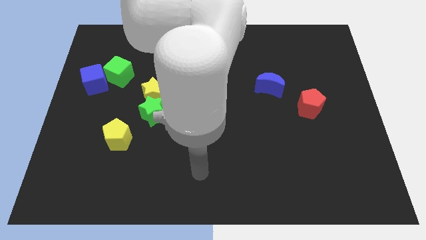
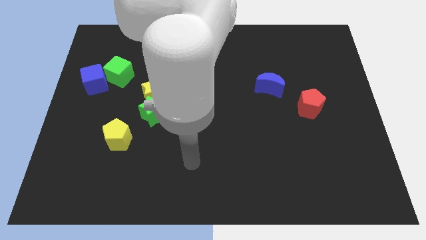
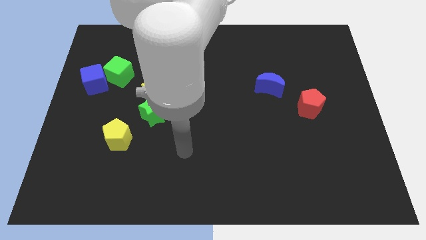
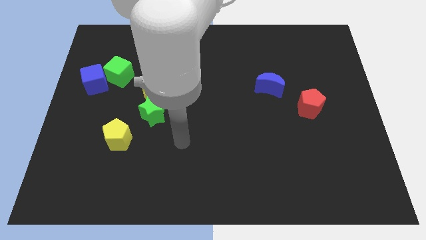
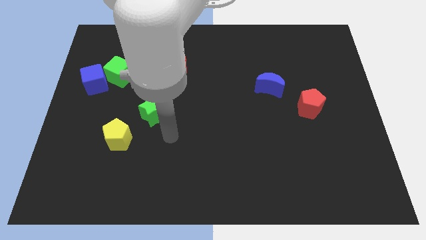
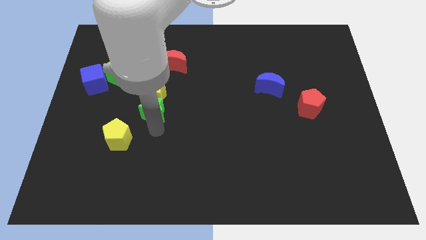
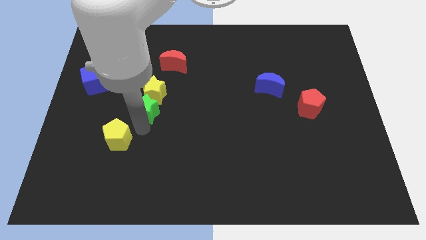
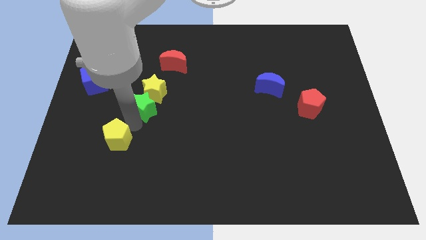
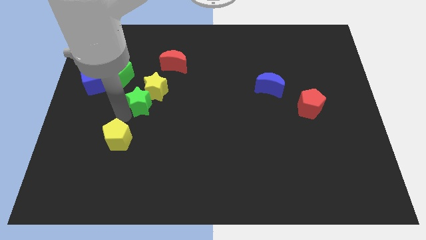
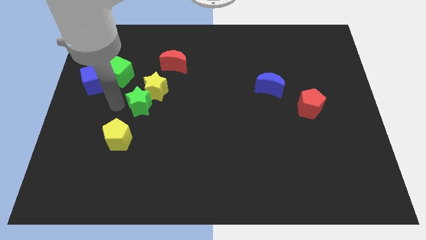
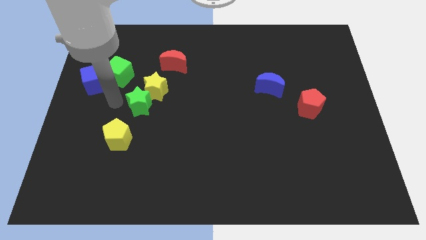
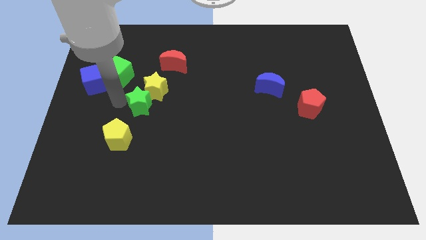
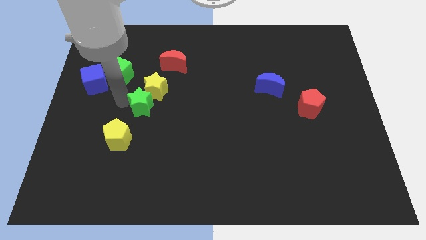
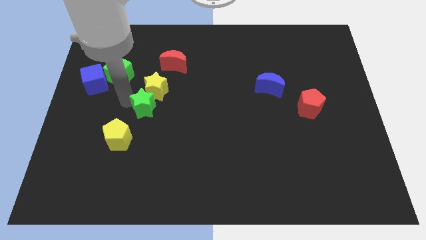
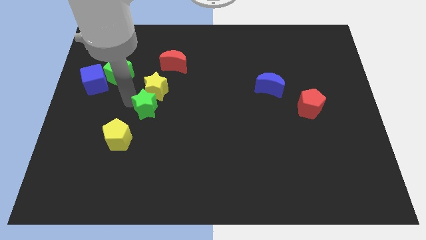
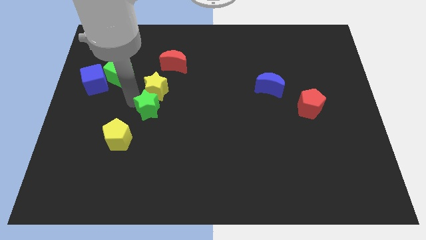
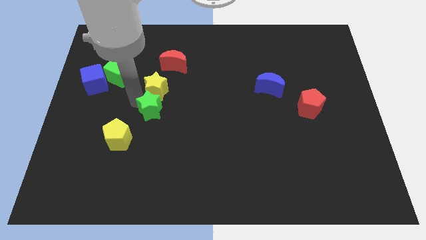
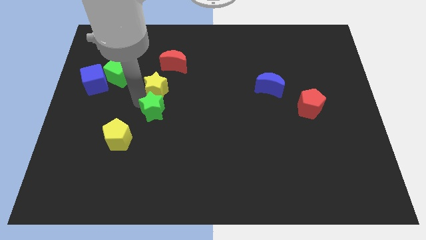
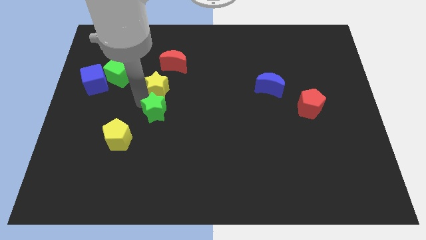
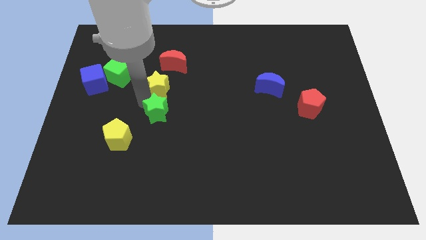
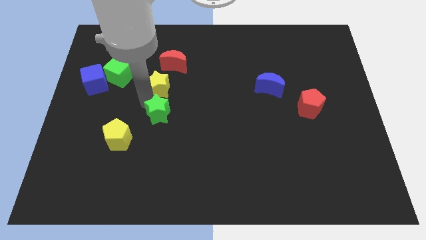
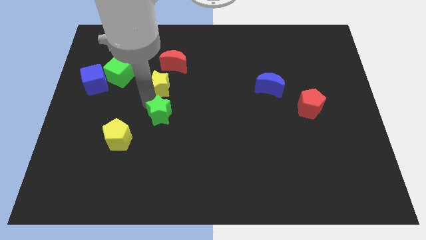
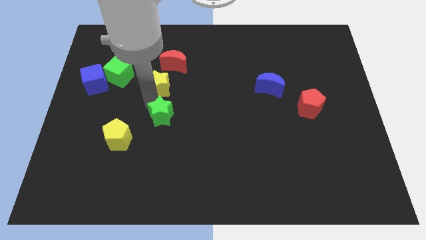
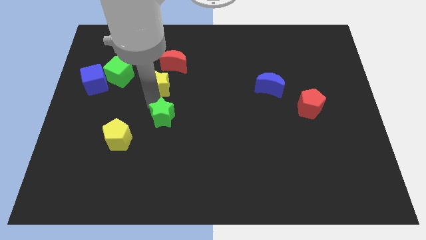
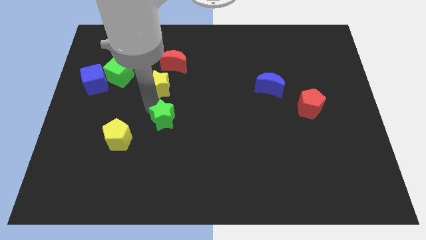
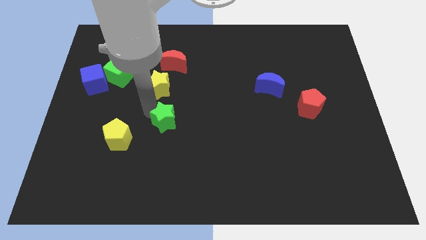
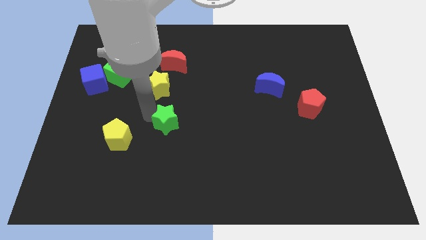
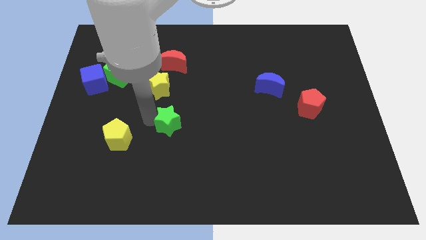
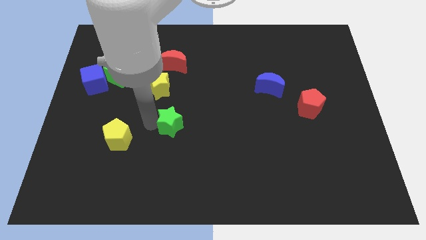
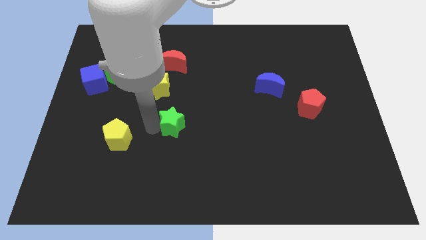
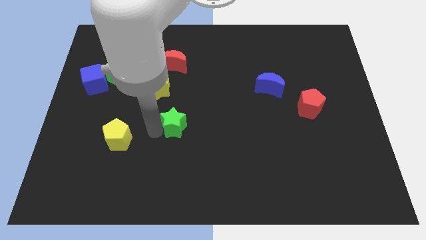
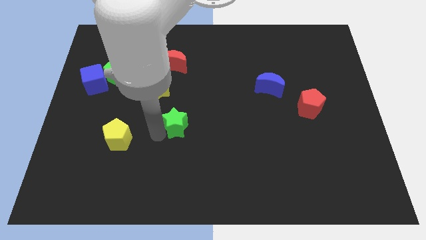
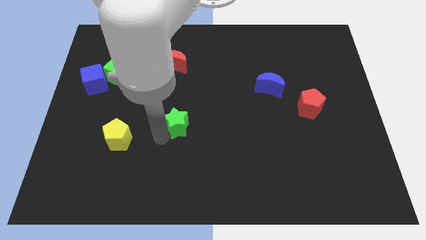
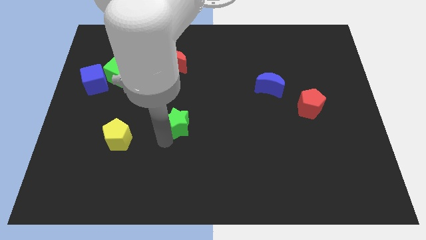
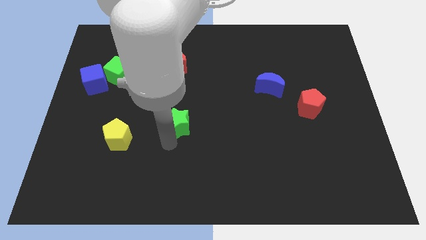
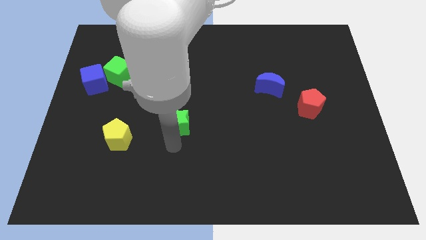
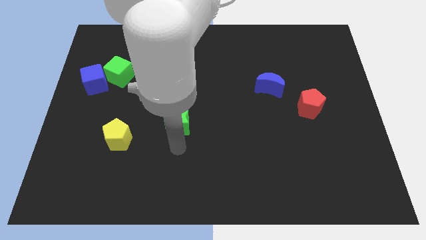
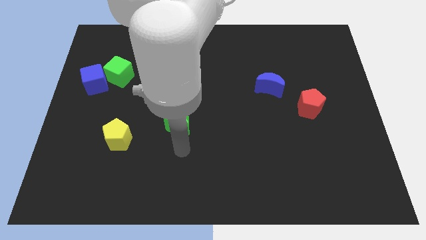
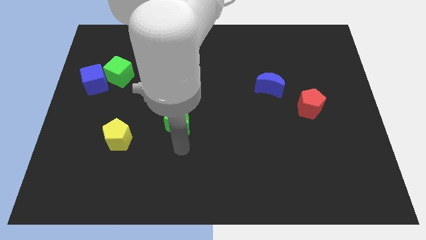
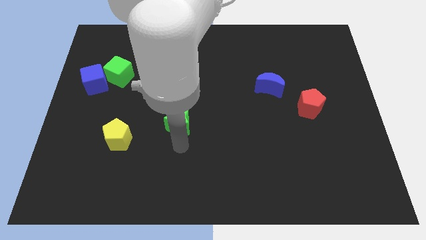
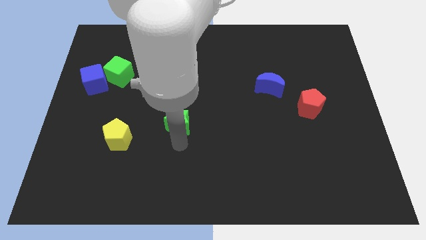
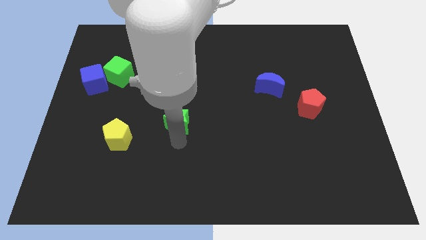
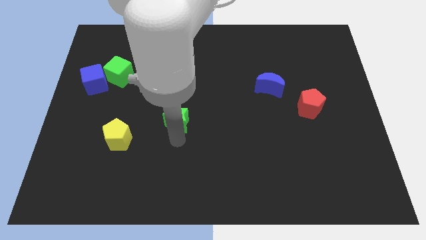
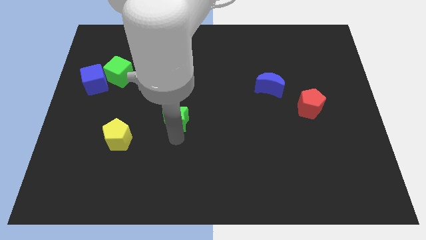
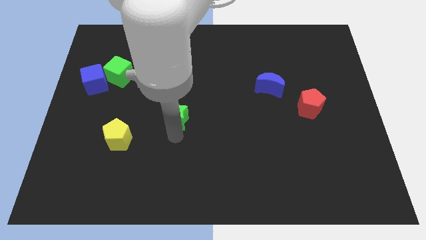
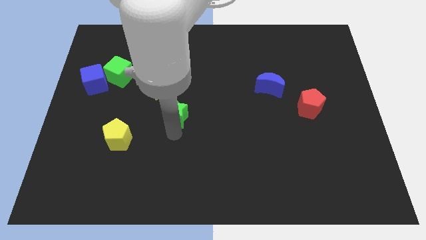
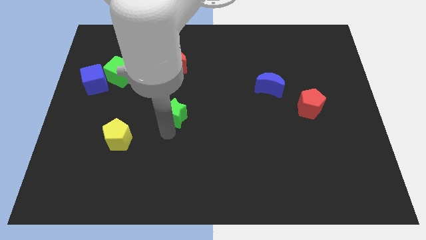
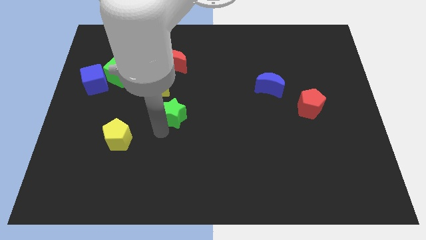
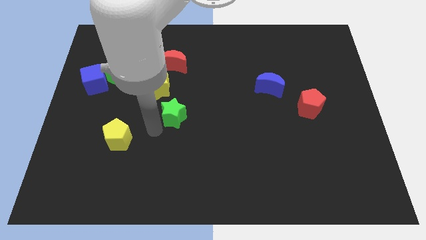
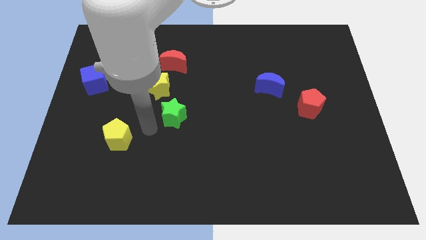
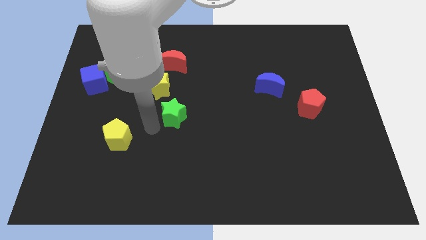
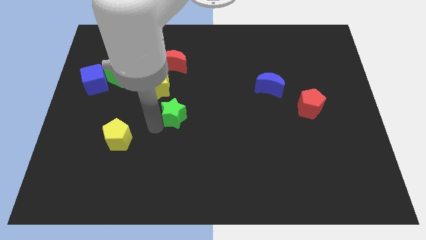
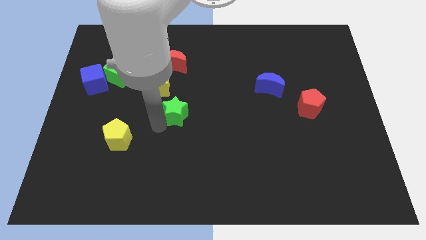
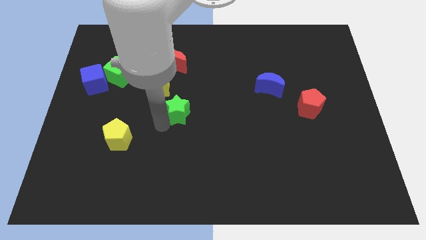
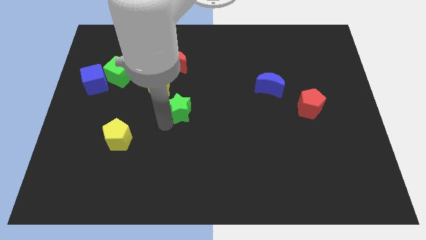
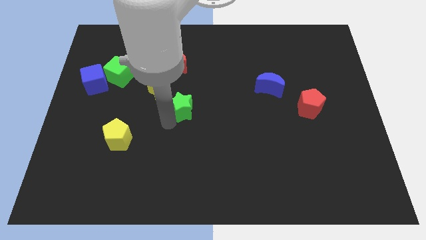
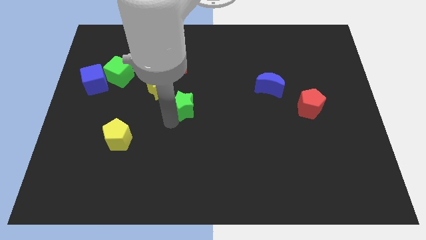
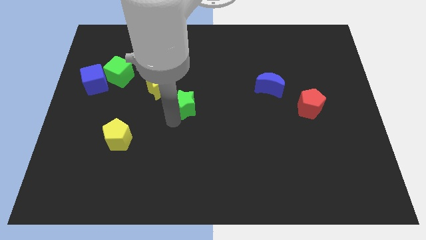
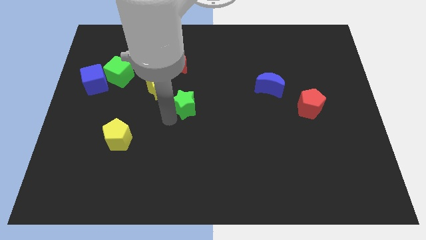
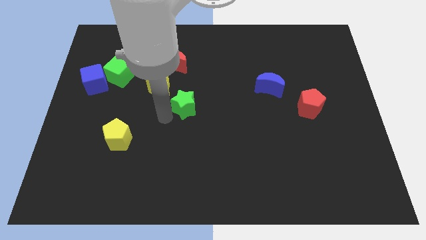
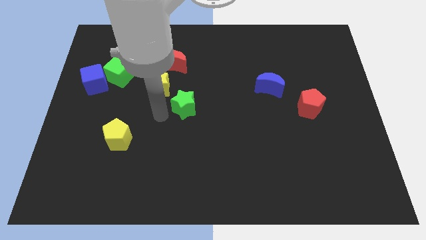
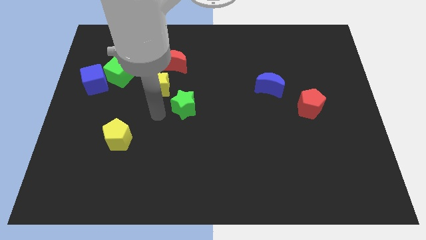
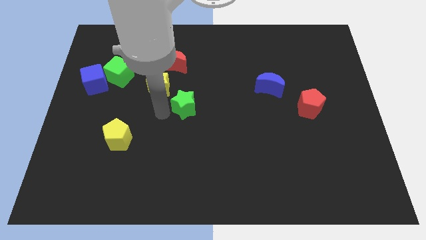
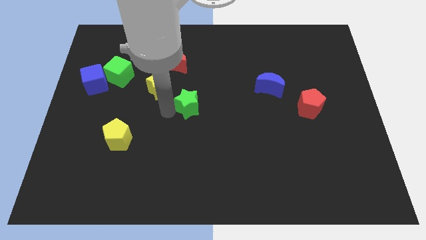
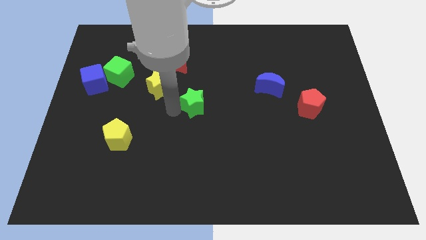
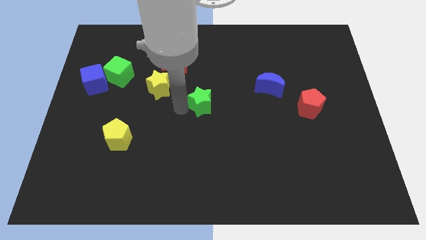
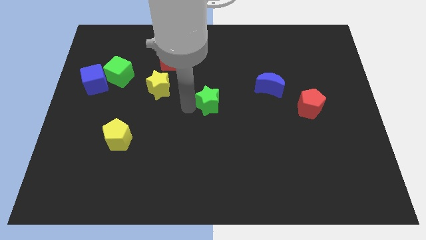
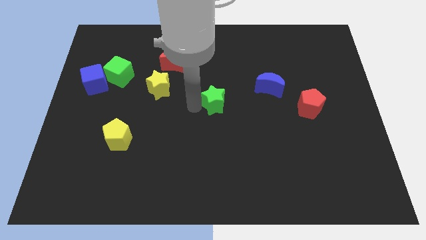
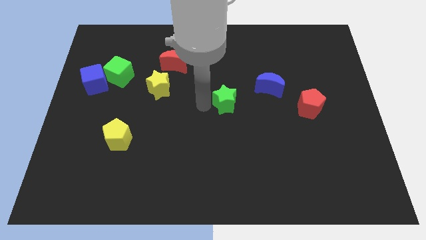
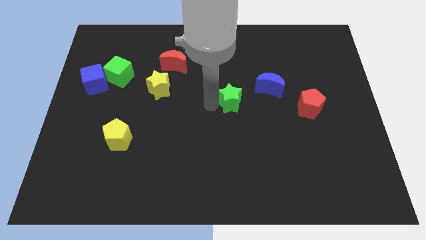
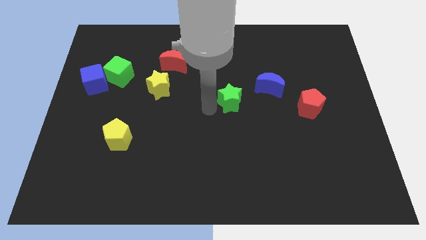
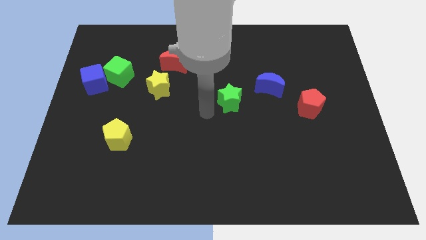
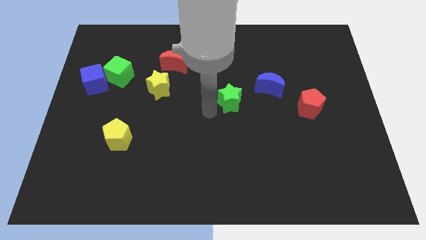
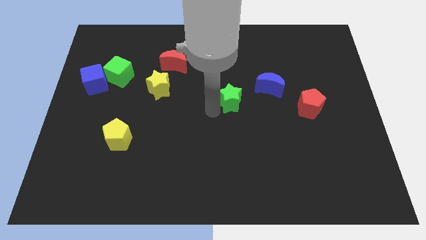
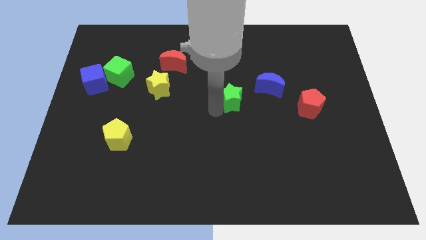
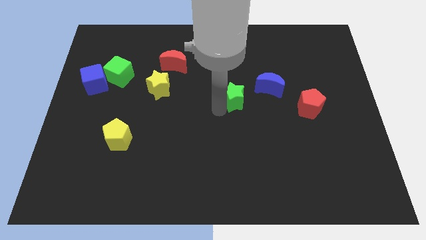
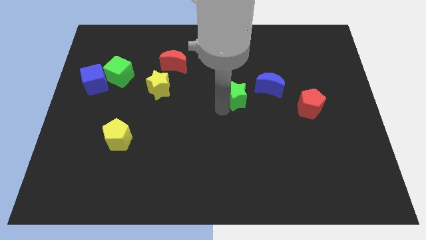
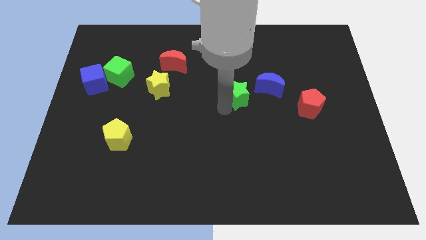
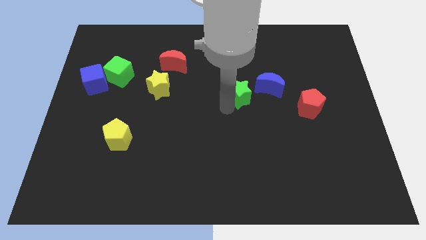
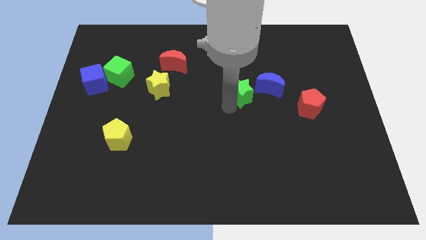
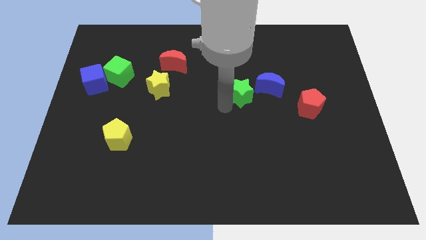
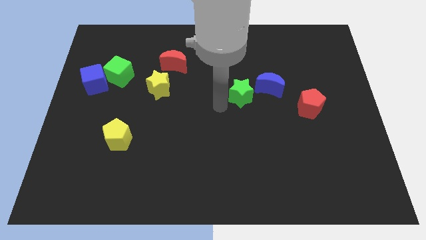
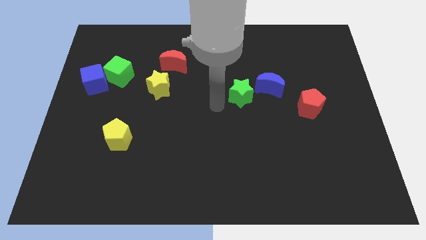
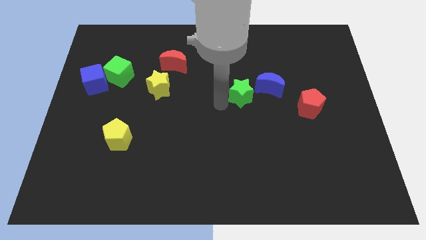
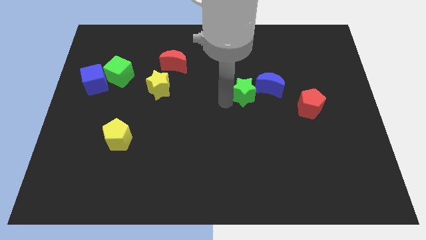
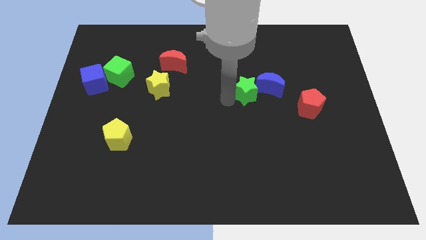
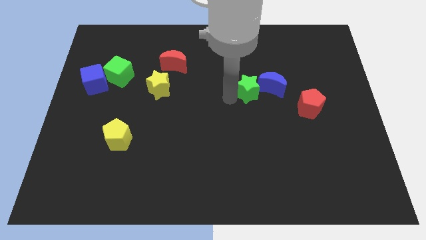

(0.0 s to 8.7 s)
put the green star close to the blue moon
